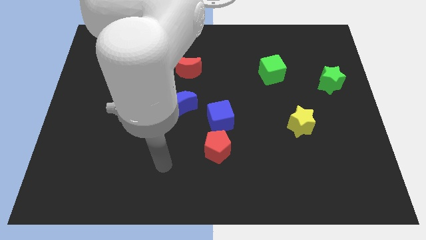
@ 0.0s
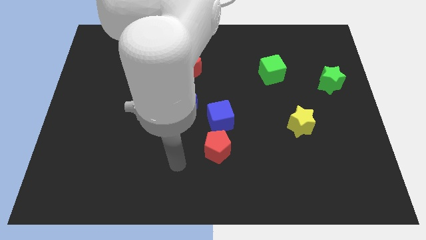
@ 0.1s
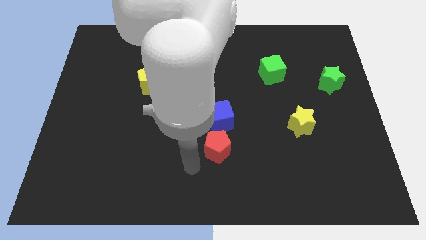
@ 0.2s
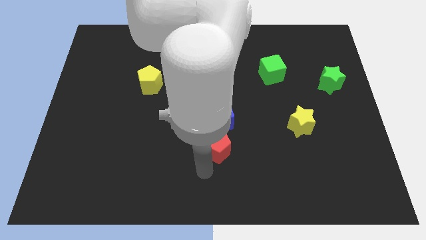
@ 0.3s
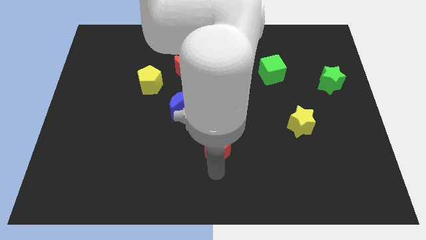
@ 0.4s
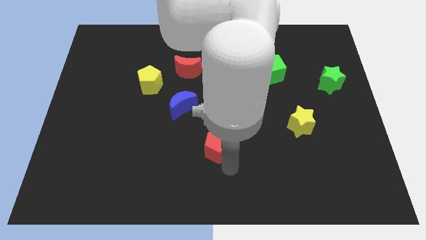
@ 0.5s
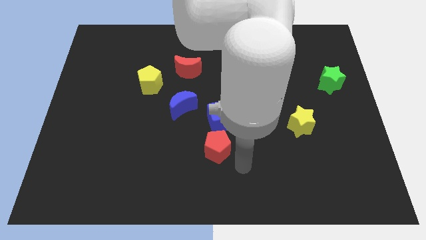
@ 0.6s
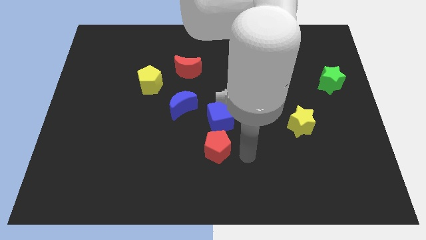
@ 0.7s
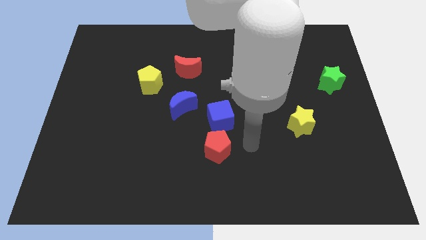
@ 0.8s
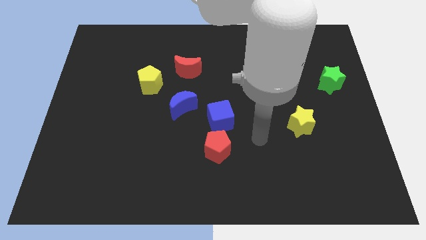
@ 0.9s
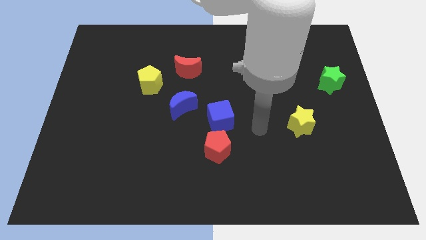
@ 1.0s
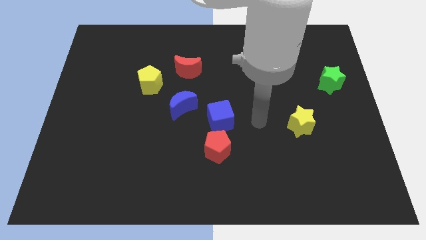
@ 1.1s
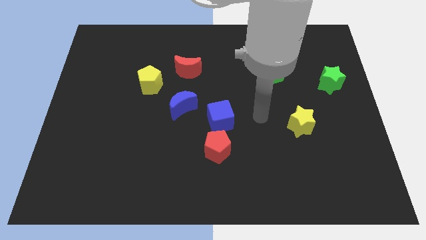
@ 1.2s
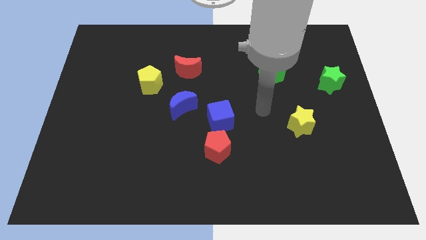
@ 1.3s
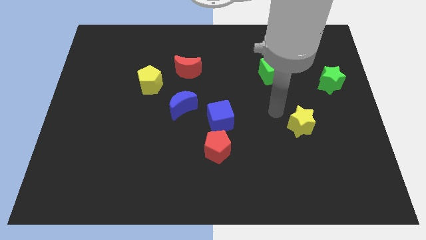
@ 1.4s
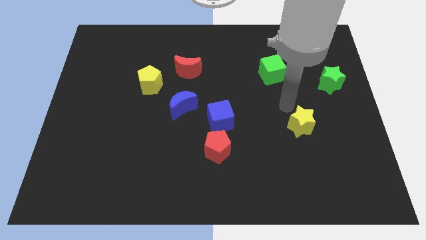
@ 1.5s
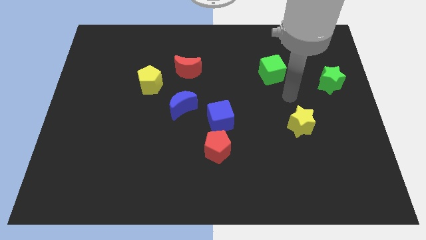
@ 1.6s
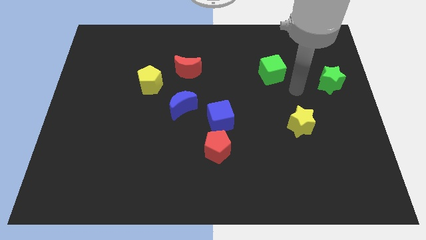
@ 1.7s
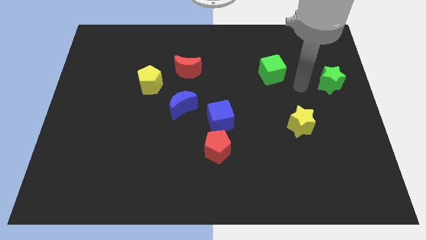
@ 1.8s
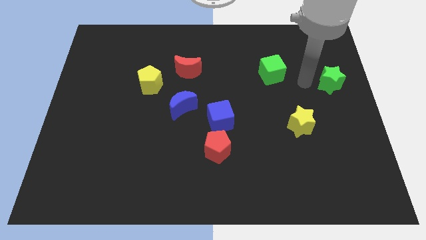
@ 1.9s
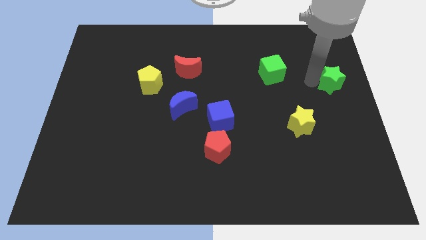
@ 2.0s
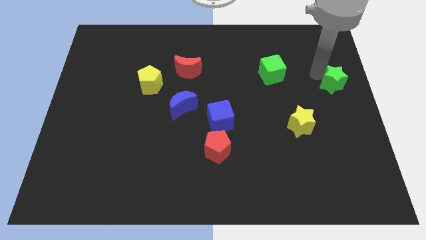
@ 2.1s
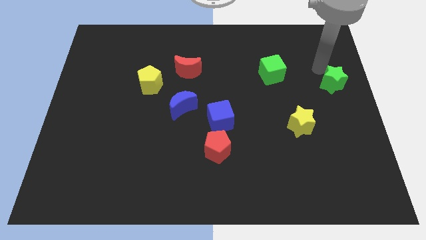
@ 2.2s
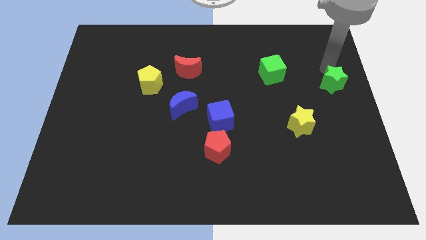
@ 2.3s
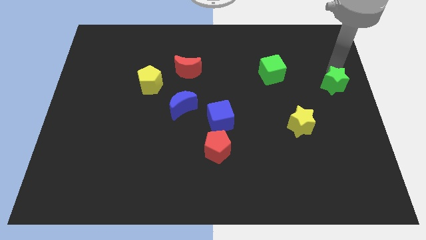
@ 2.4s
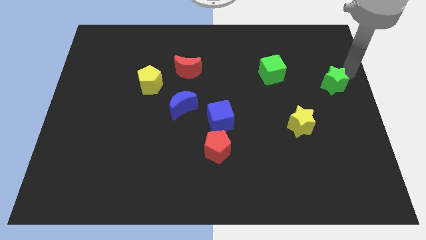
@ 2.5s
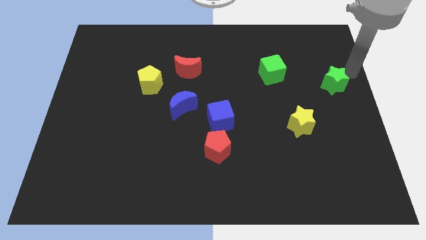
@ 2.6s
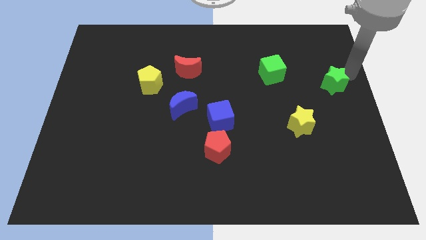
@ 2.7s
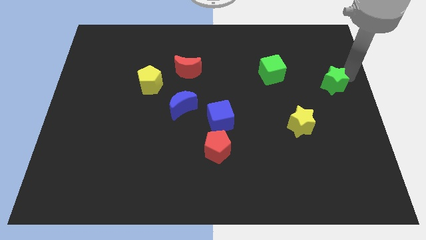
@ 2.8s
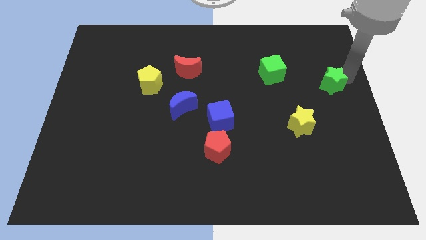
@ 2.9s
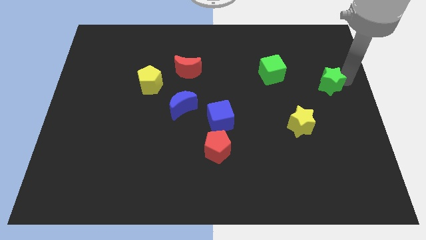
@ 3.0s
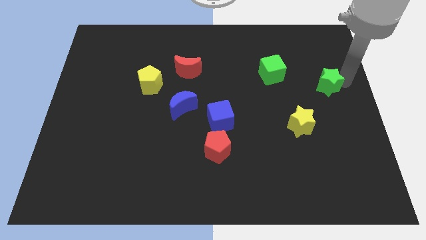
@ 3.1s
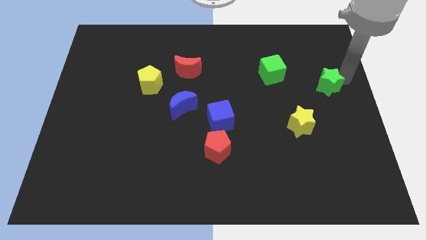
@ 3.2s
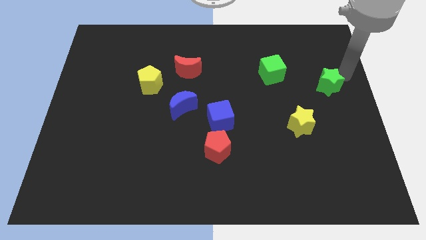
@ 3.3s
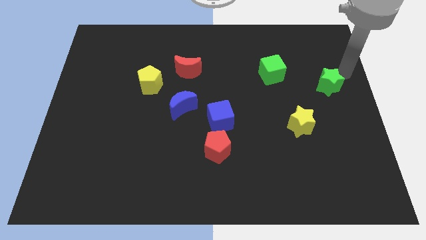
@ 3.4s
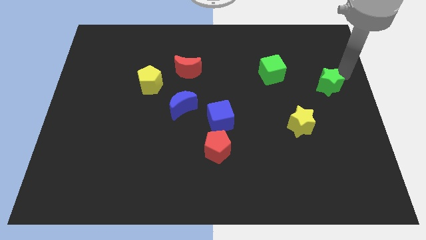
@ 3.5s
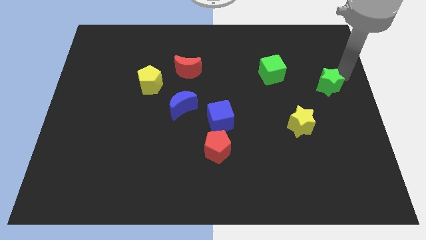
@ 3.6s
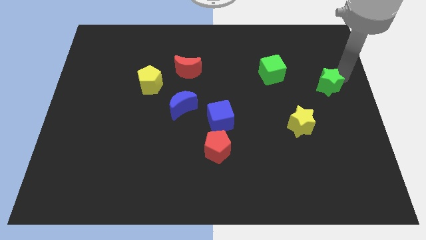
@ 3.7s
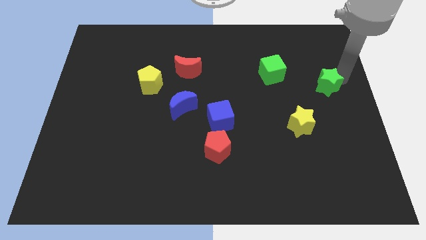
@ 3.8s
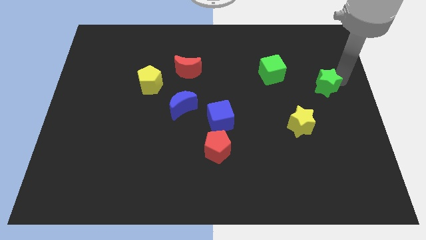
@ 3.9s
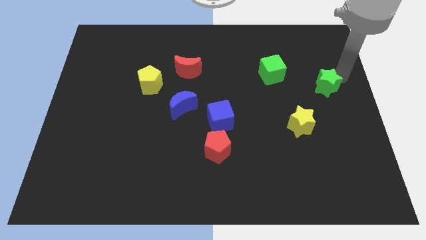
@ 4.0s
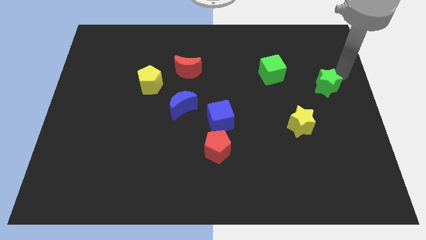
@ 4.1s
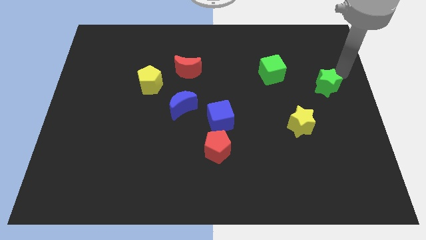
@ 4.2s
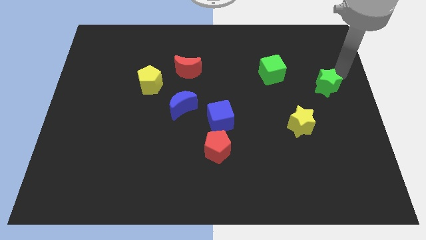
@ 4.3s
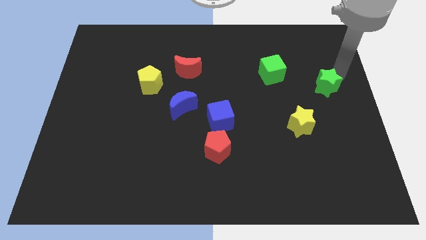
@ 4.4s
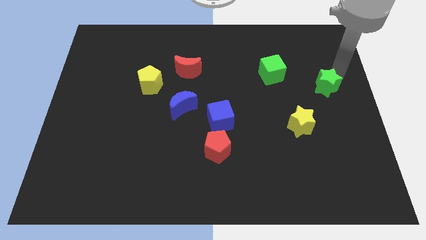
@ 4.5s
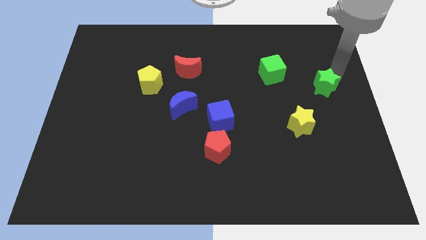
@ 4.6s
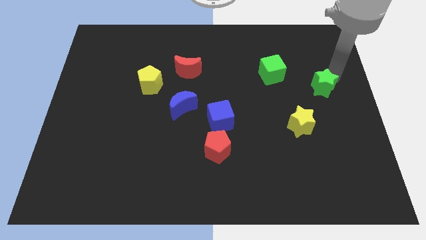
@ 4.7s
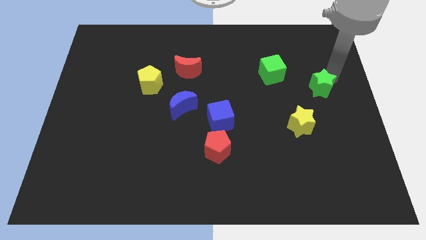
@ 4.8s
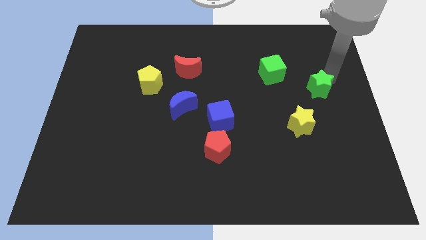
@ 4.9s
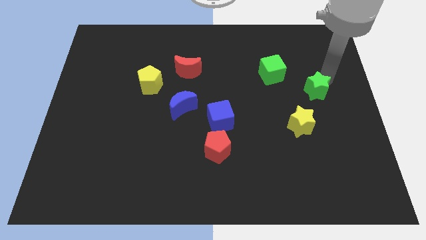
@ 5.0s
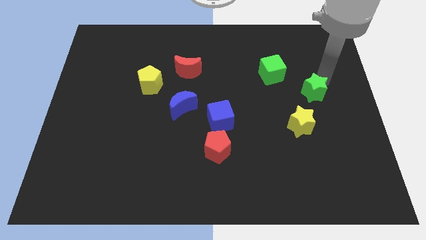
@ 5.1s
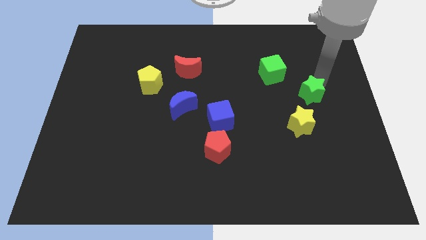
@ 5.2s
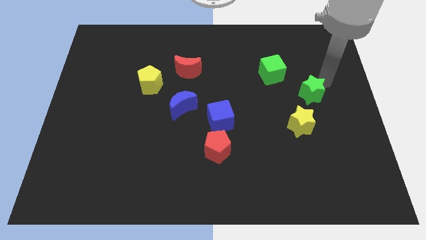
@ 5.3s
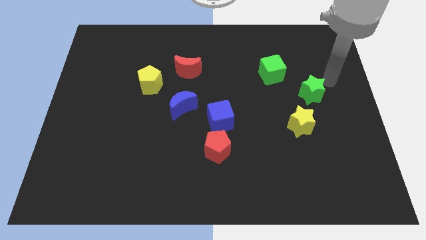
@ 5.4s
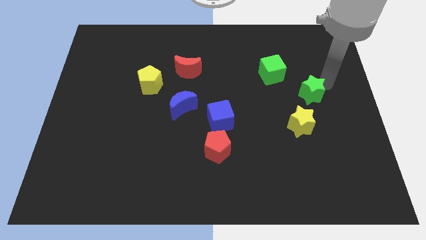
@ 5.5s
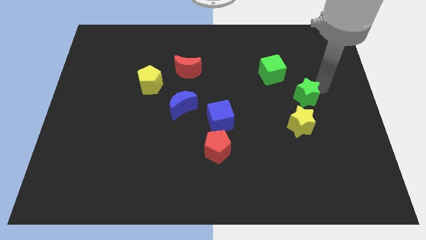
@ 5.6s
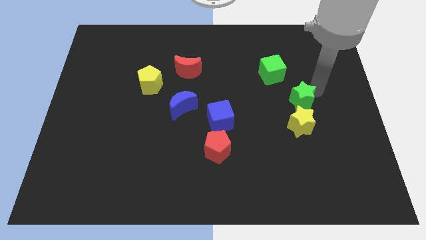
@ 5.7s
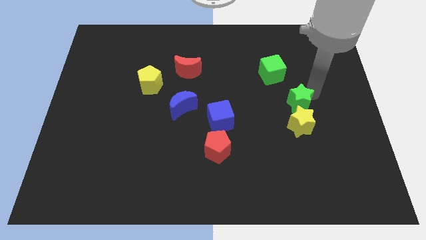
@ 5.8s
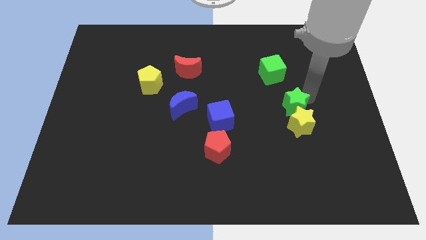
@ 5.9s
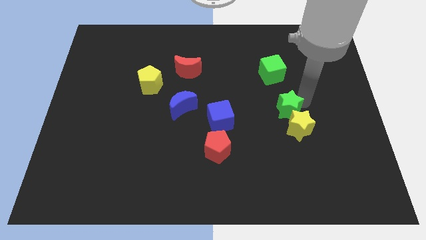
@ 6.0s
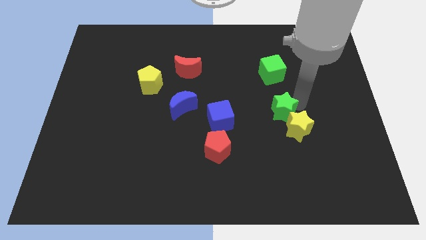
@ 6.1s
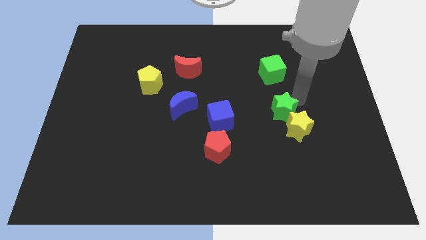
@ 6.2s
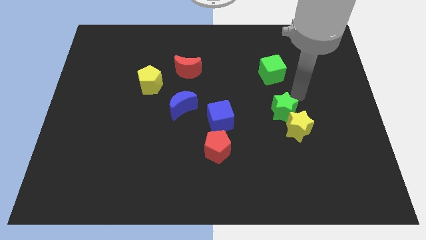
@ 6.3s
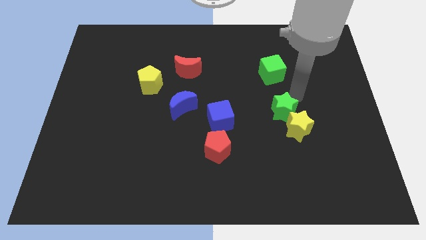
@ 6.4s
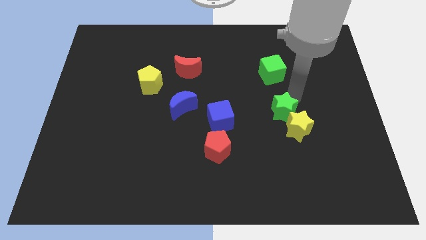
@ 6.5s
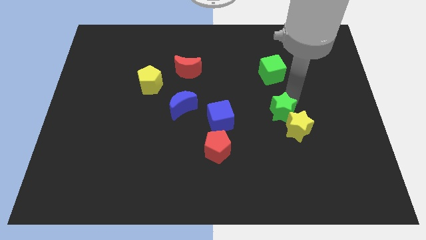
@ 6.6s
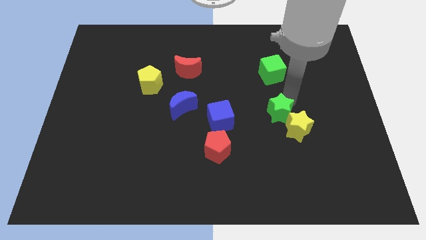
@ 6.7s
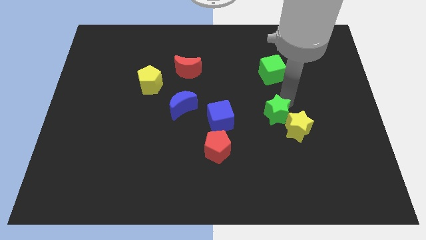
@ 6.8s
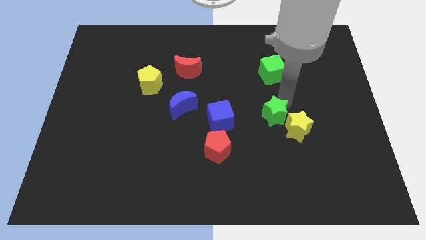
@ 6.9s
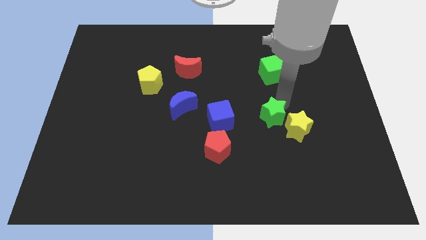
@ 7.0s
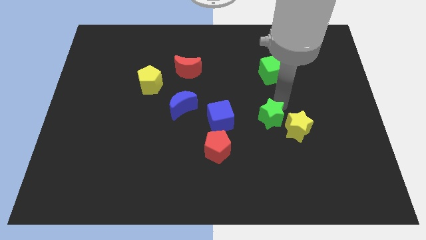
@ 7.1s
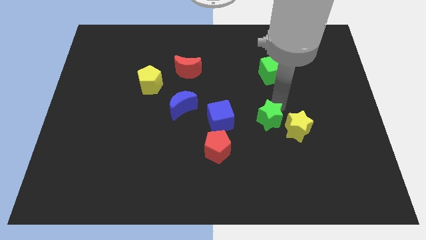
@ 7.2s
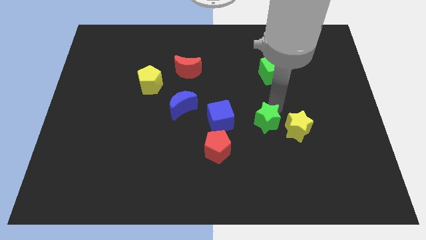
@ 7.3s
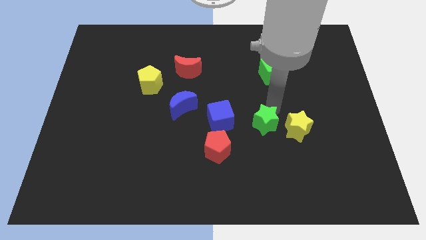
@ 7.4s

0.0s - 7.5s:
push the green star diagonally downwards and to the left

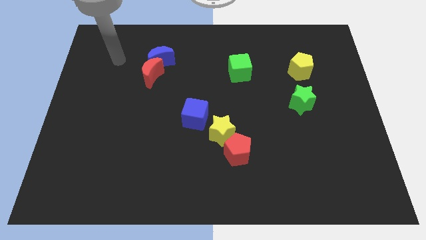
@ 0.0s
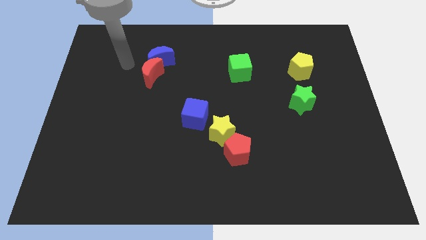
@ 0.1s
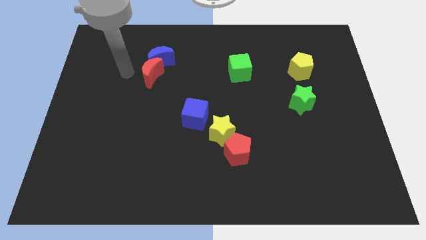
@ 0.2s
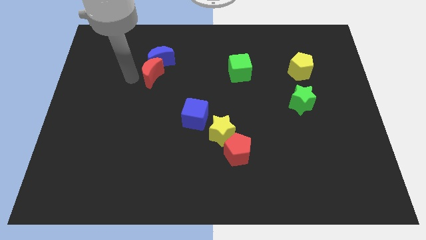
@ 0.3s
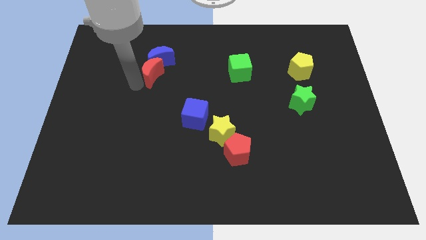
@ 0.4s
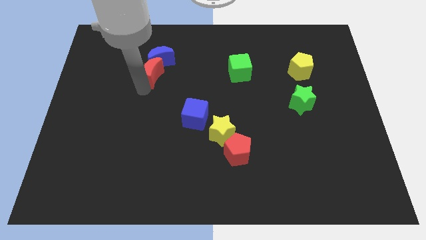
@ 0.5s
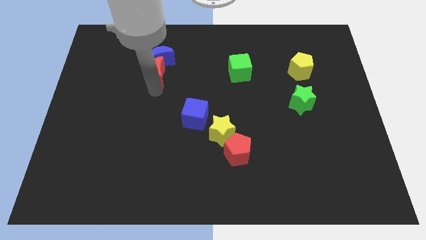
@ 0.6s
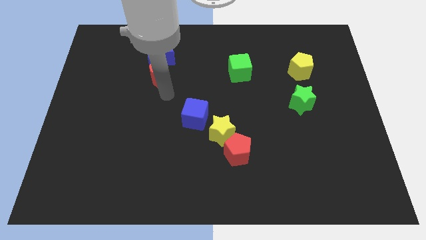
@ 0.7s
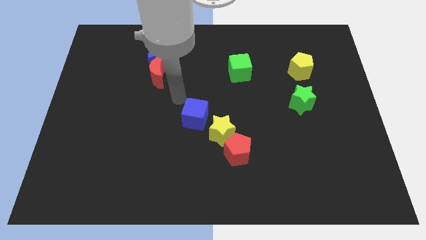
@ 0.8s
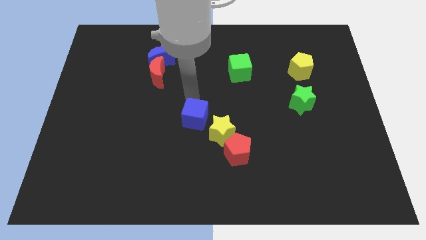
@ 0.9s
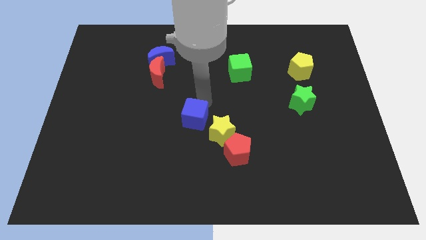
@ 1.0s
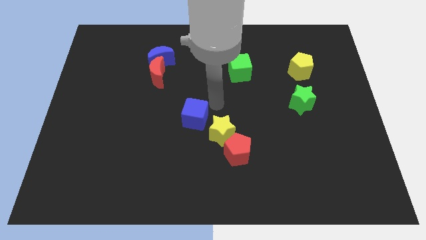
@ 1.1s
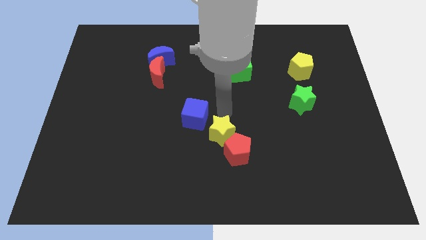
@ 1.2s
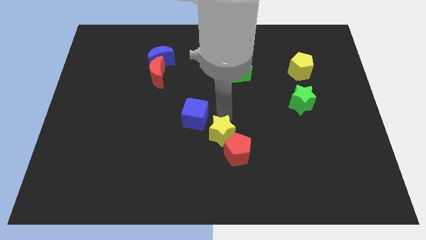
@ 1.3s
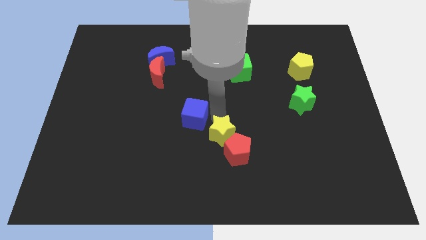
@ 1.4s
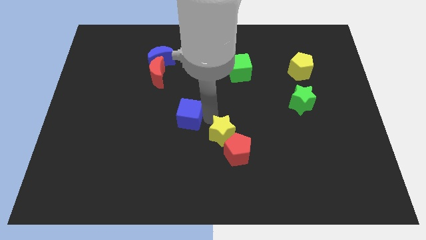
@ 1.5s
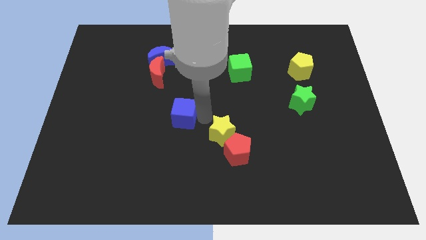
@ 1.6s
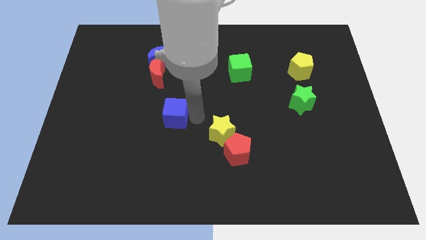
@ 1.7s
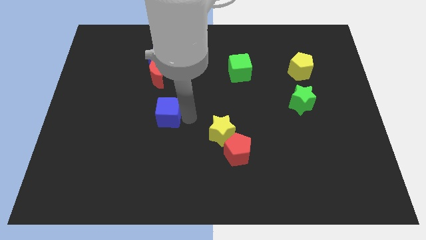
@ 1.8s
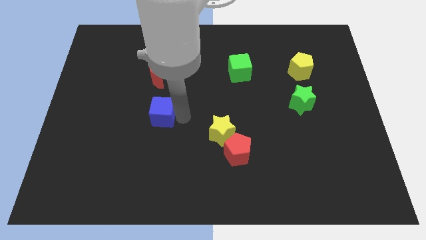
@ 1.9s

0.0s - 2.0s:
slide the blue cube slightly left
